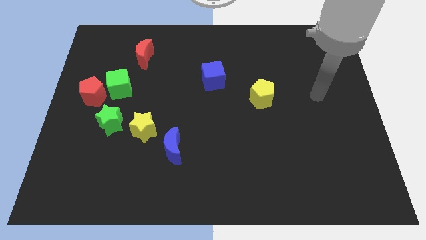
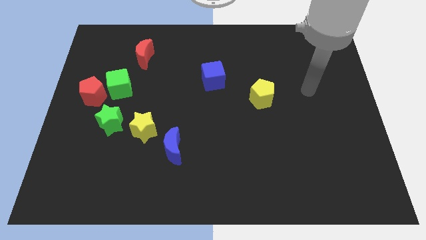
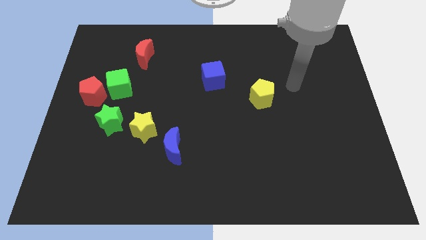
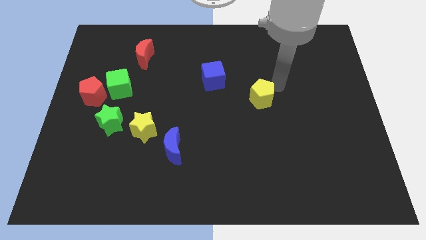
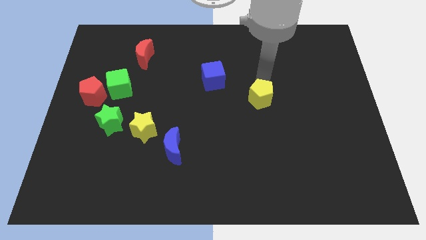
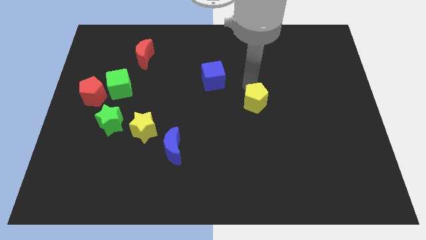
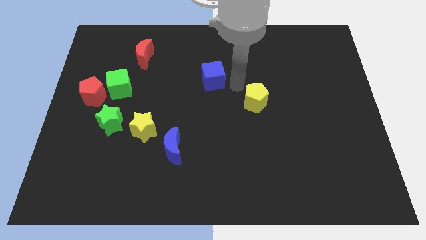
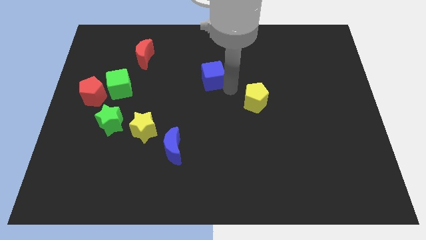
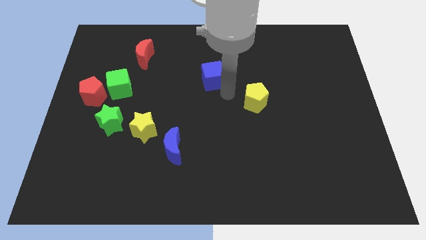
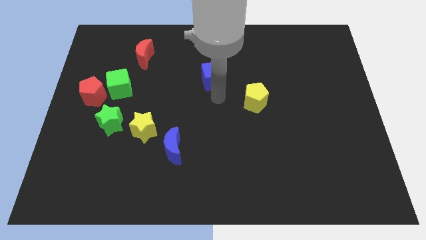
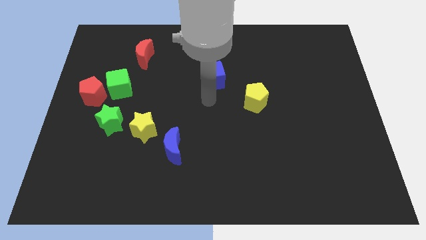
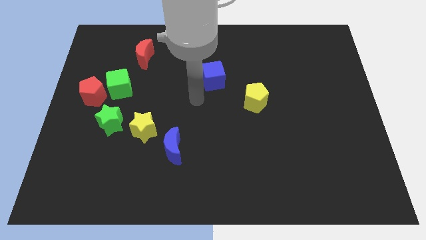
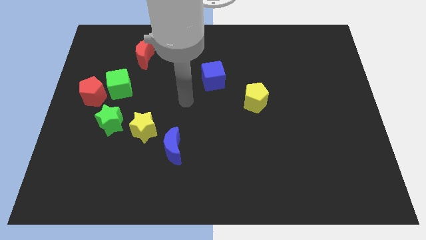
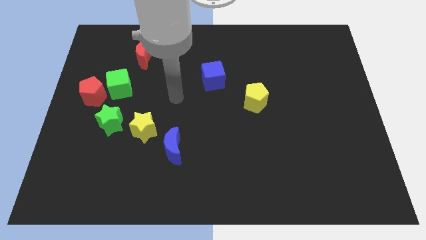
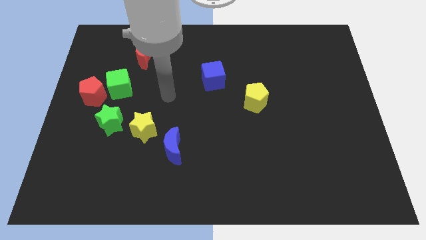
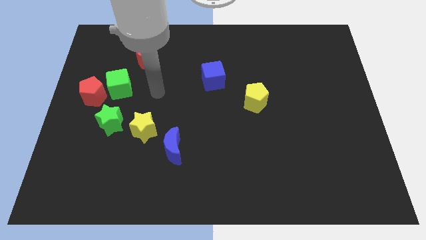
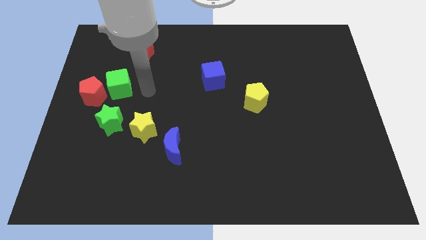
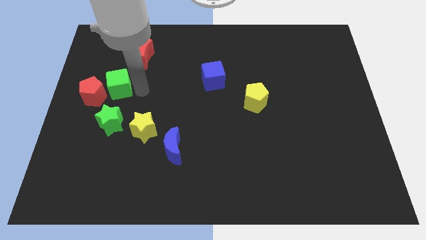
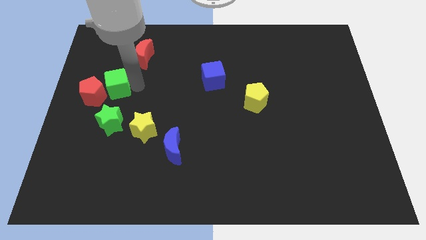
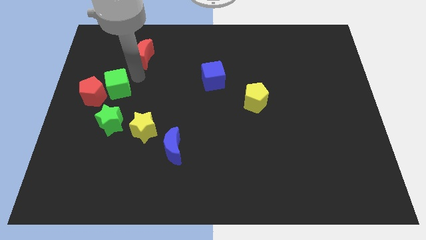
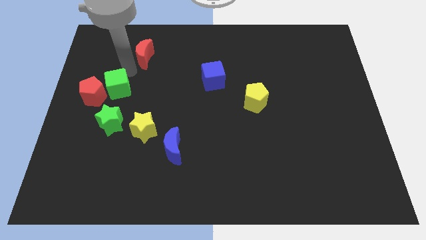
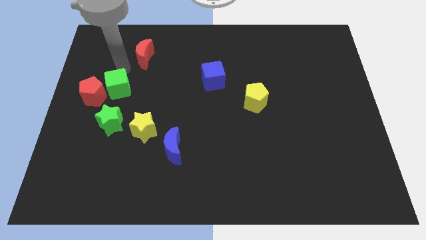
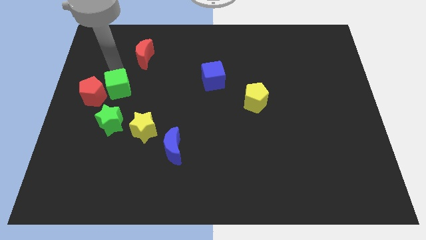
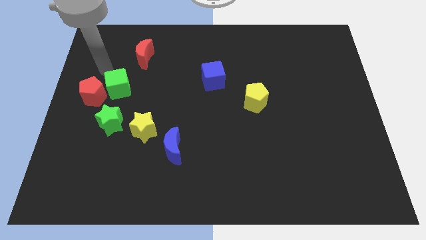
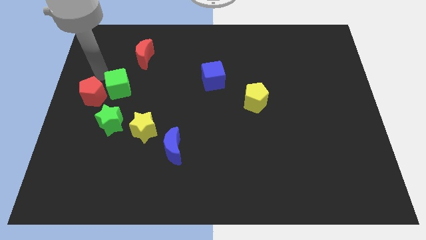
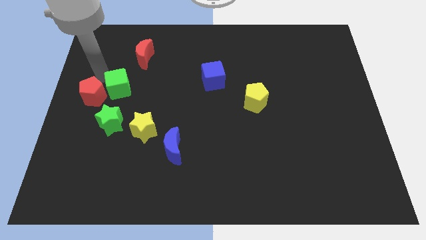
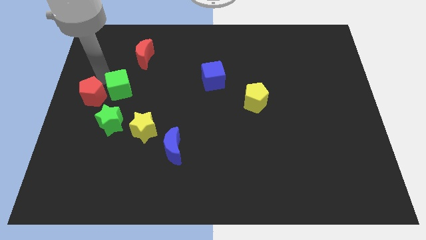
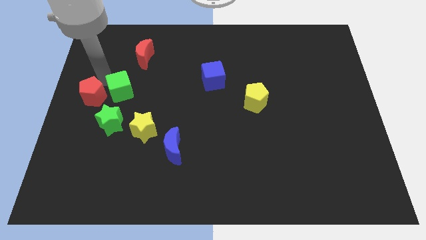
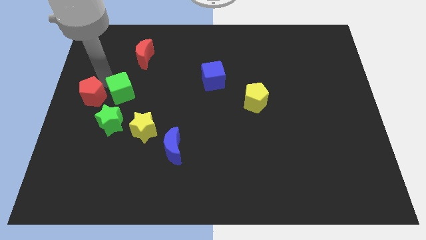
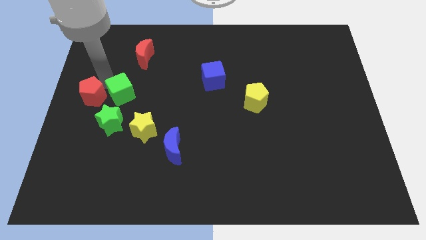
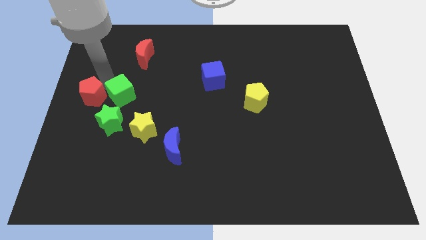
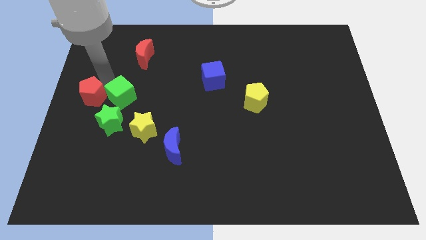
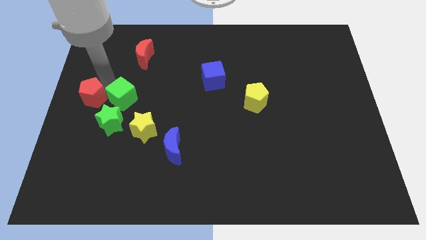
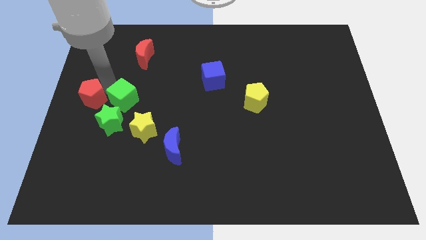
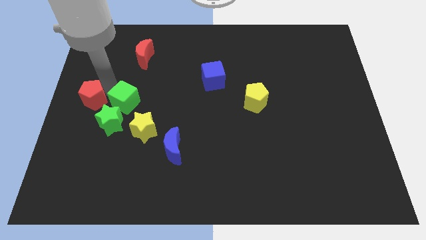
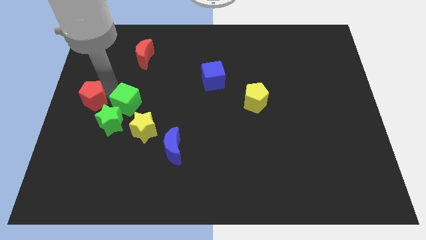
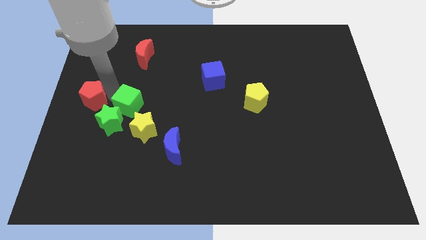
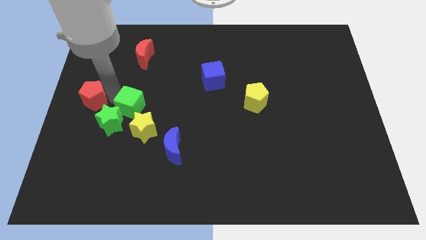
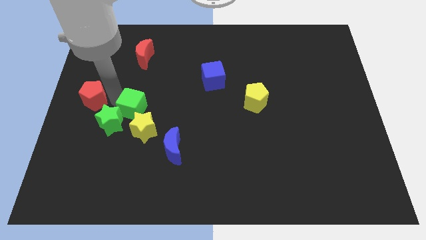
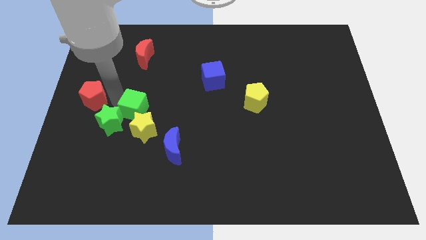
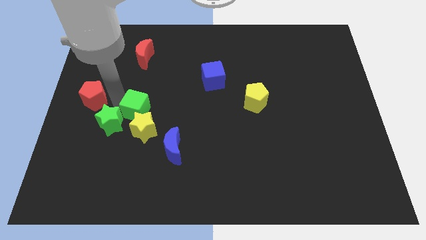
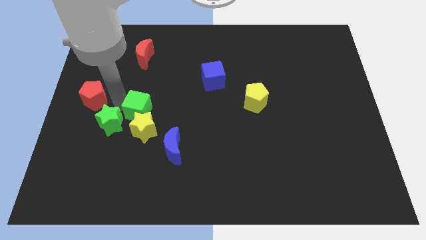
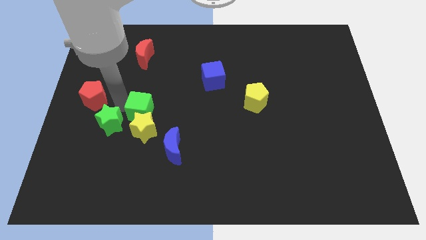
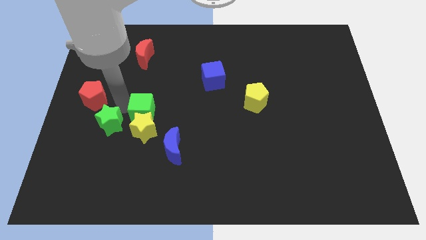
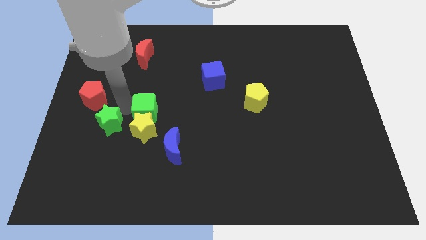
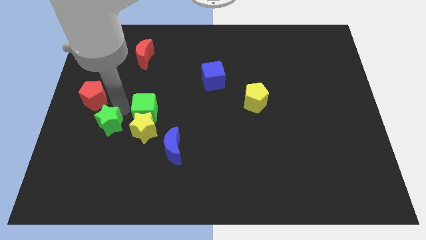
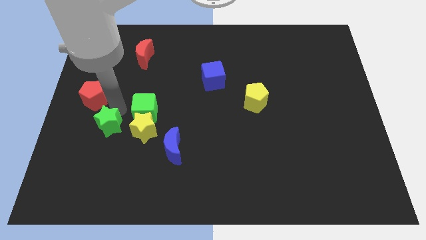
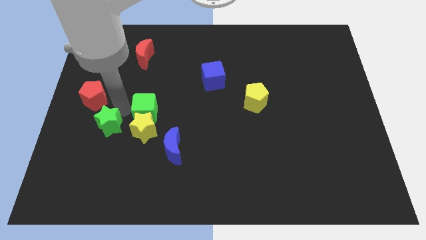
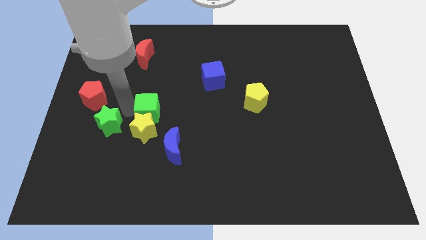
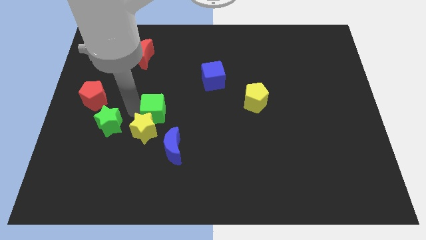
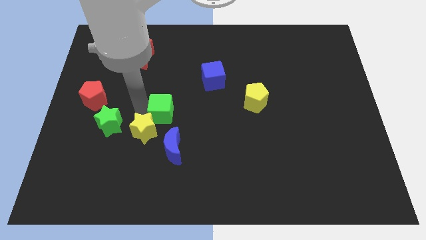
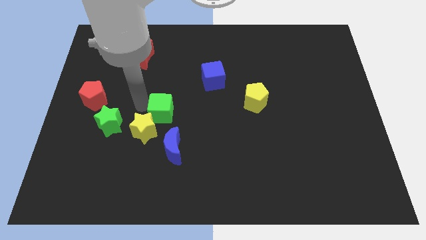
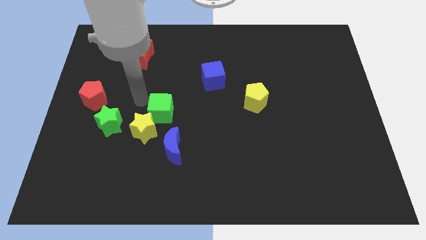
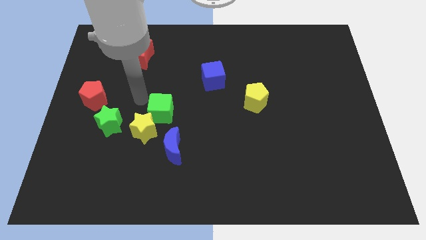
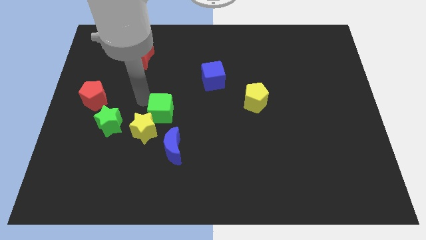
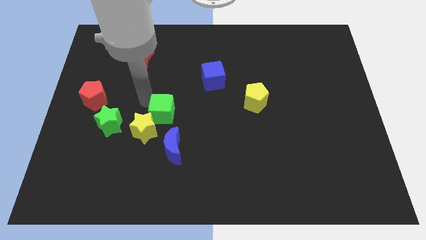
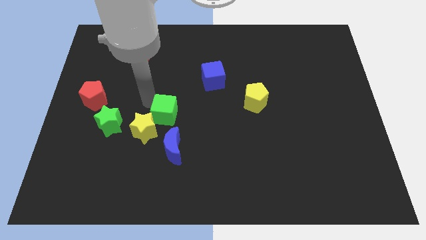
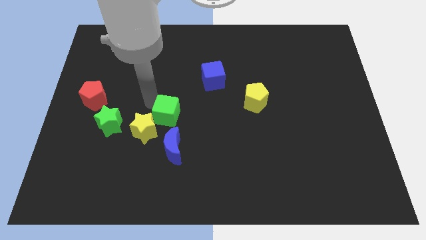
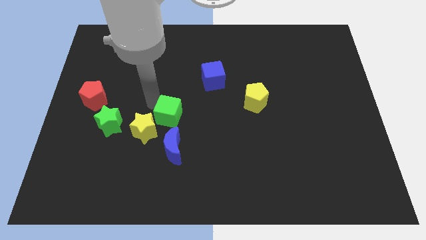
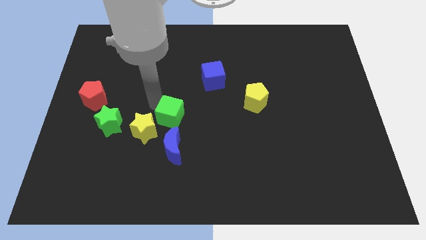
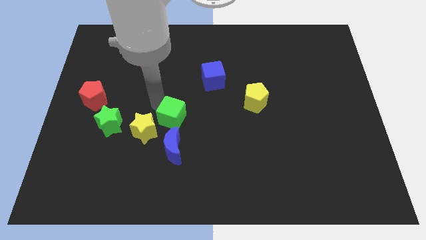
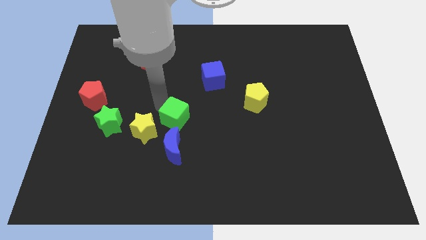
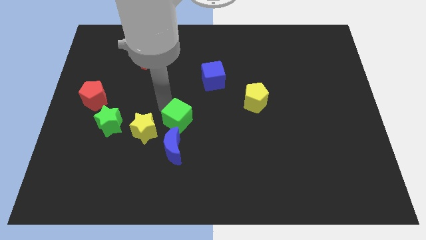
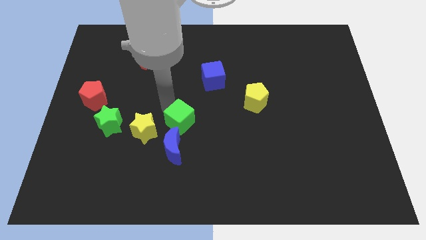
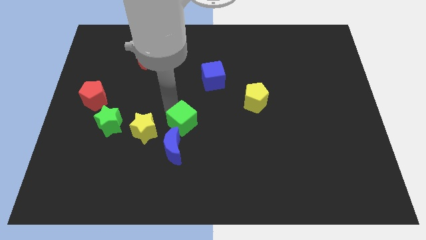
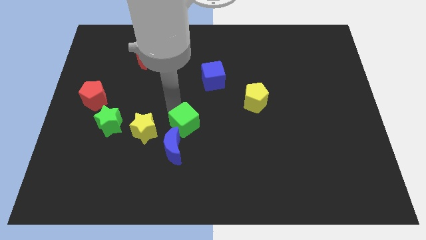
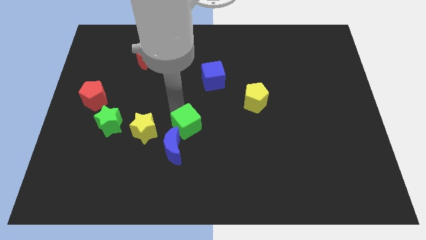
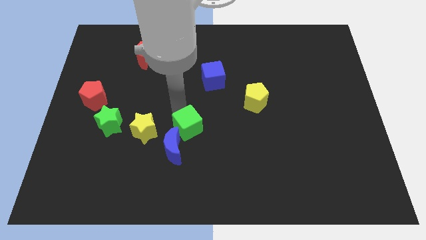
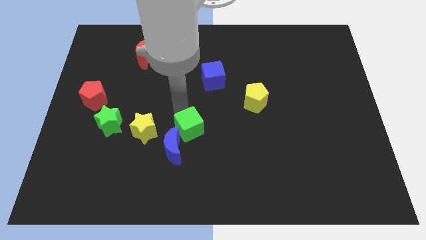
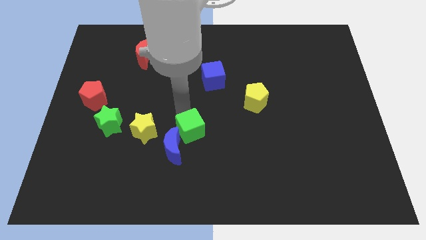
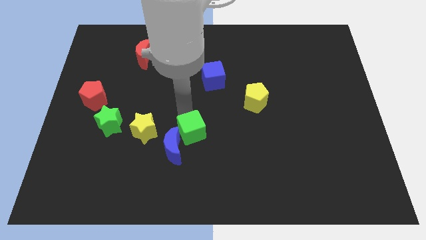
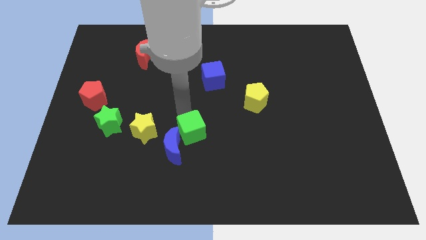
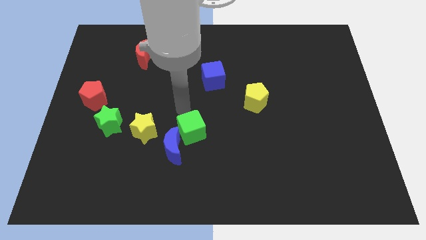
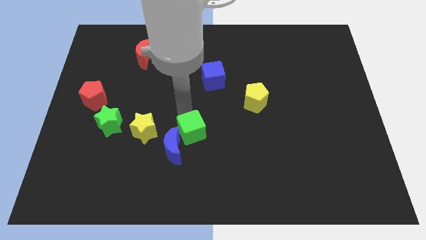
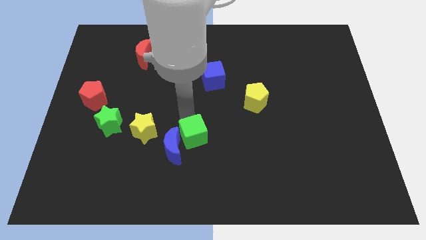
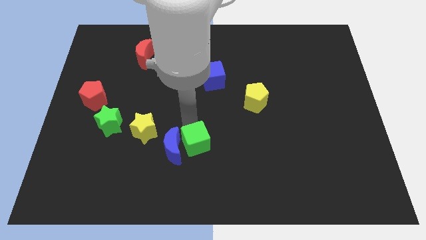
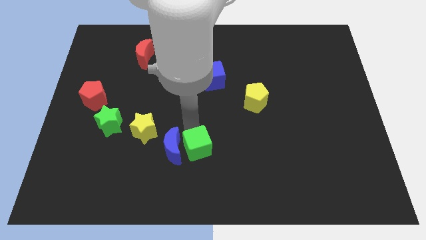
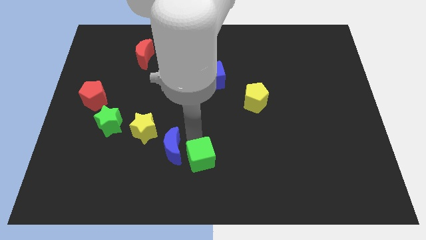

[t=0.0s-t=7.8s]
push the green cube to the bottom side
